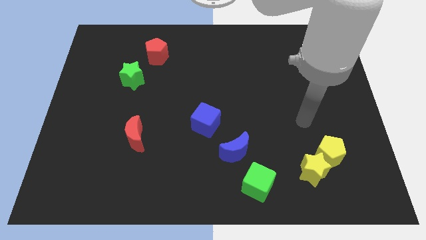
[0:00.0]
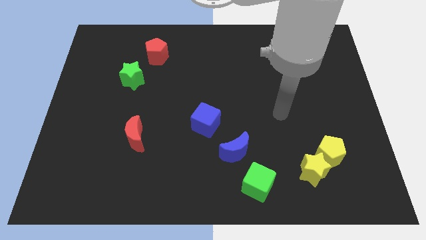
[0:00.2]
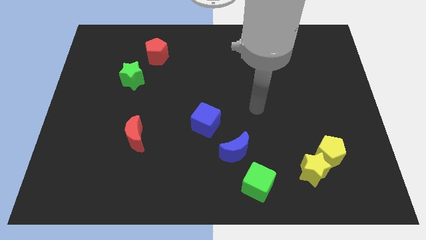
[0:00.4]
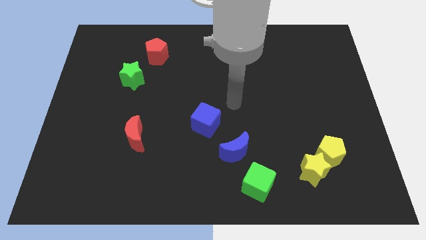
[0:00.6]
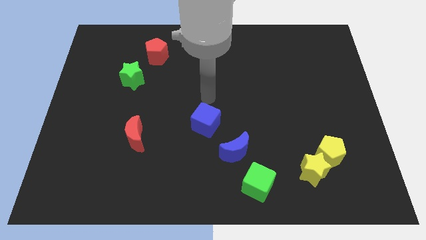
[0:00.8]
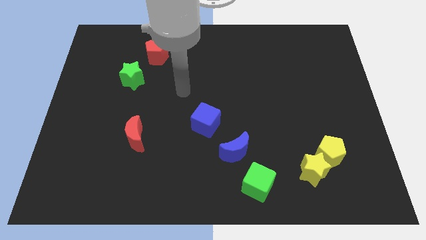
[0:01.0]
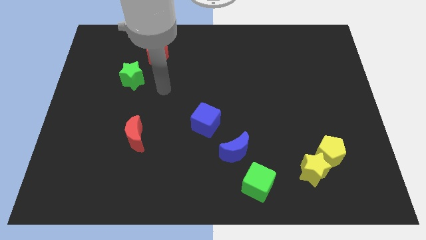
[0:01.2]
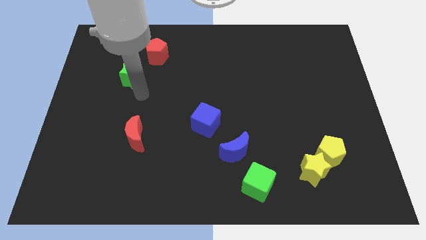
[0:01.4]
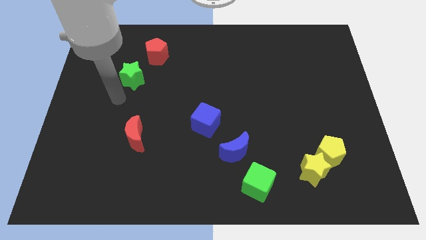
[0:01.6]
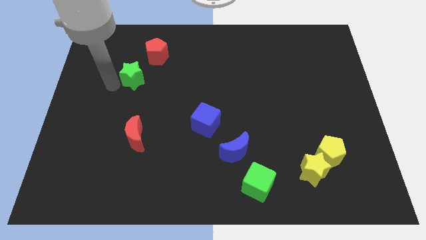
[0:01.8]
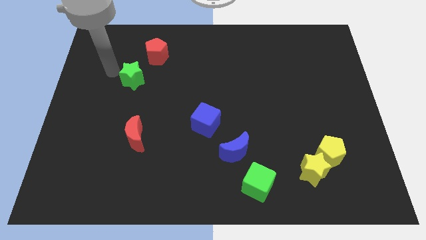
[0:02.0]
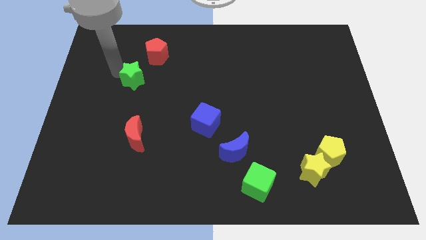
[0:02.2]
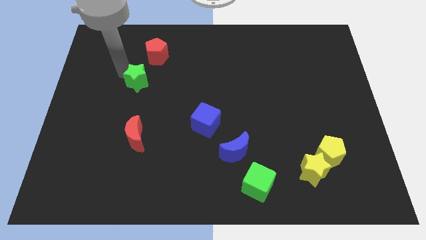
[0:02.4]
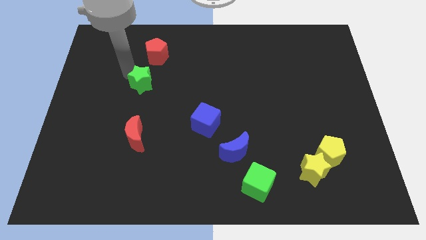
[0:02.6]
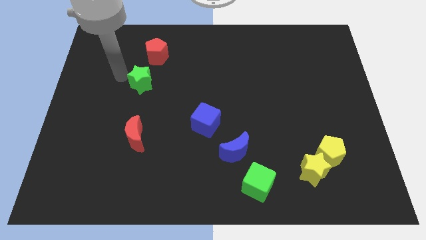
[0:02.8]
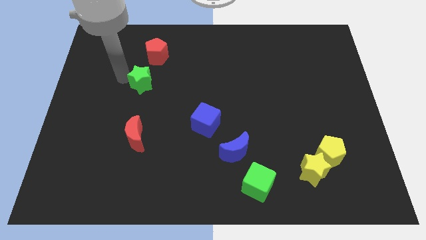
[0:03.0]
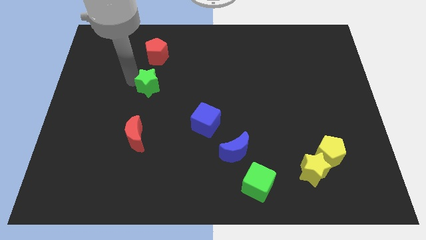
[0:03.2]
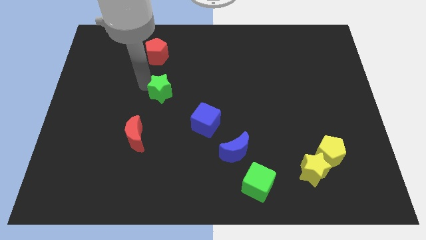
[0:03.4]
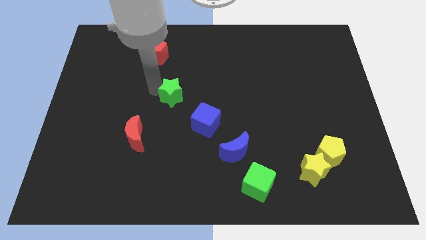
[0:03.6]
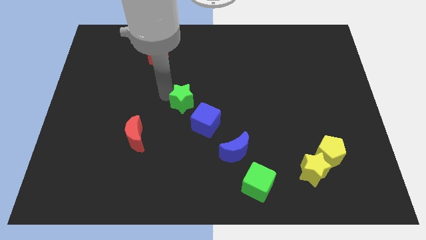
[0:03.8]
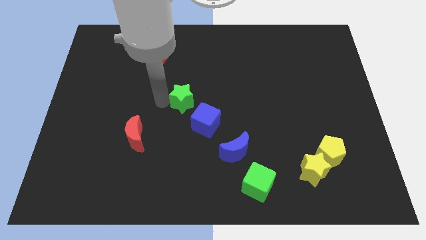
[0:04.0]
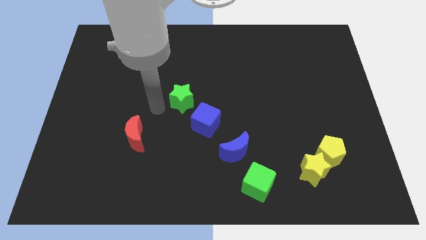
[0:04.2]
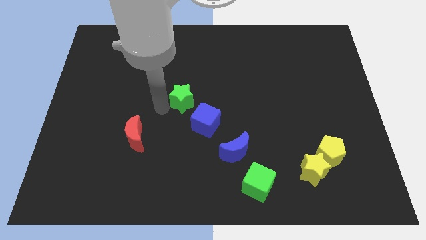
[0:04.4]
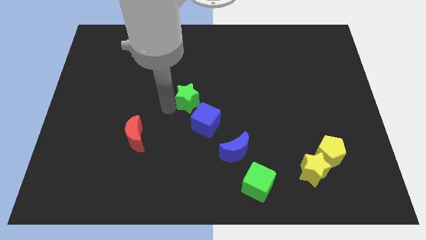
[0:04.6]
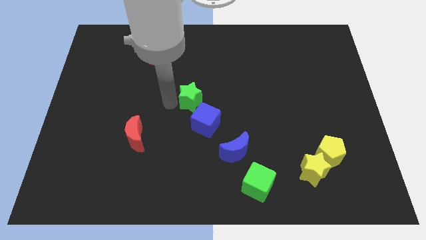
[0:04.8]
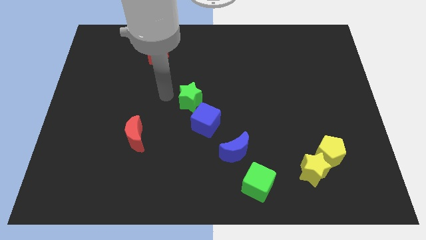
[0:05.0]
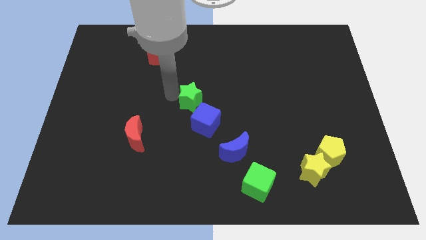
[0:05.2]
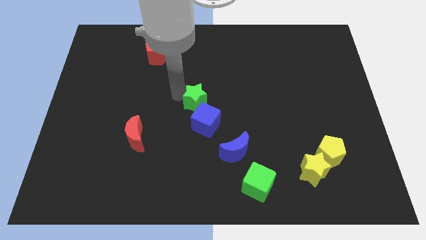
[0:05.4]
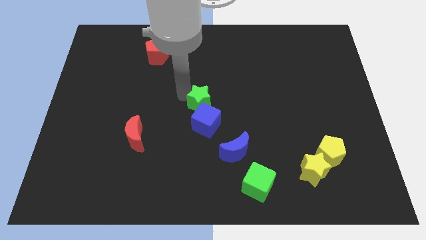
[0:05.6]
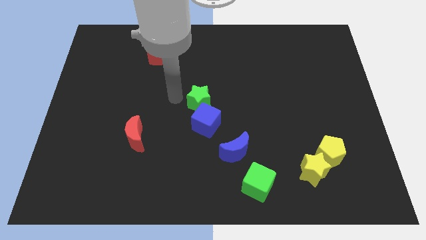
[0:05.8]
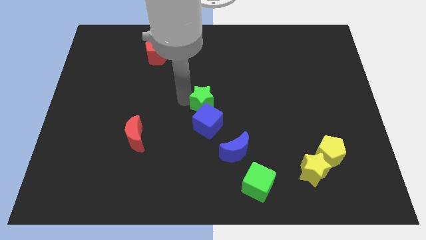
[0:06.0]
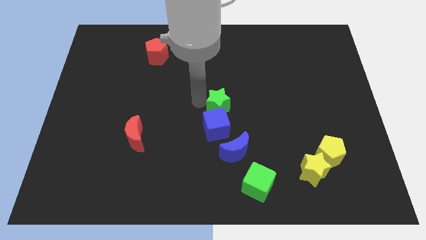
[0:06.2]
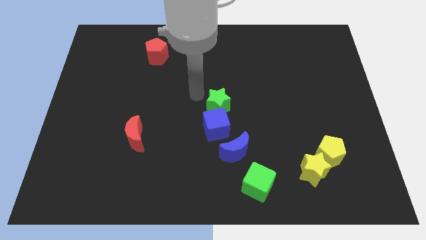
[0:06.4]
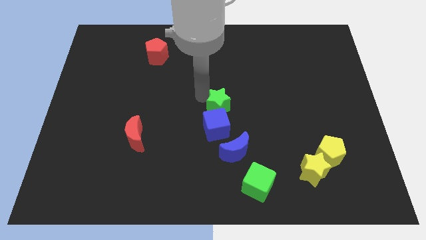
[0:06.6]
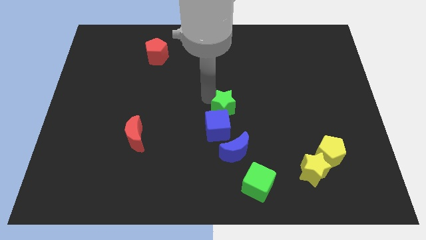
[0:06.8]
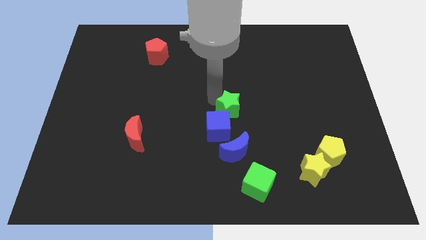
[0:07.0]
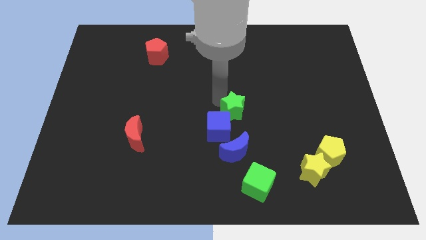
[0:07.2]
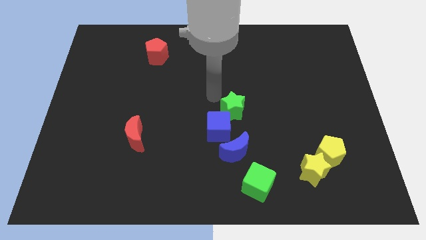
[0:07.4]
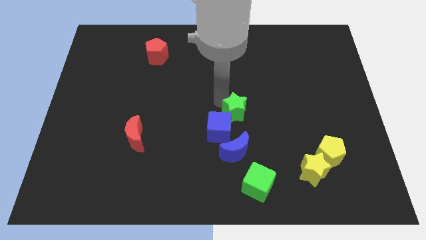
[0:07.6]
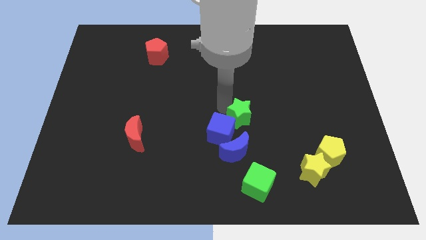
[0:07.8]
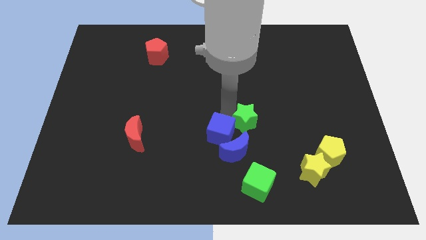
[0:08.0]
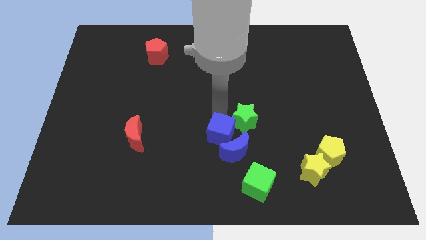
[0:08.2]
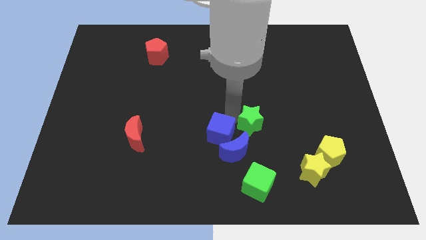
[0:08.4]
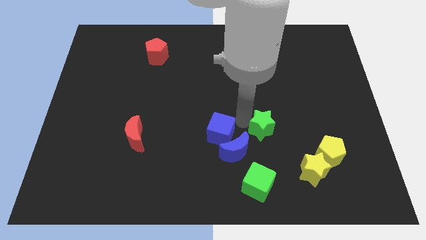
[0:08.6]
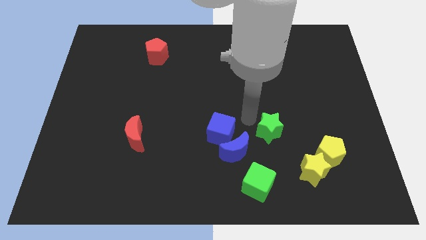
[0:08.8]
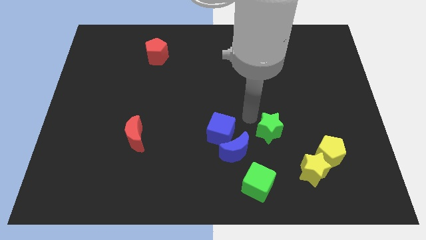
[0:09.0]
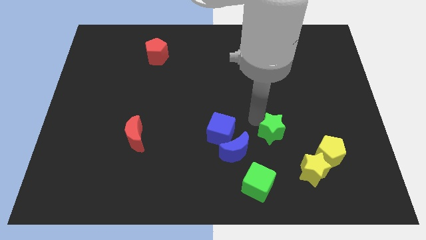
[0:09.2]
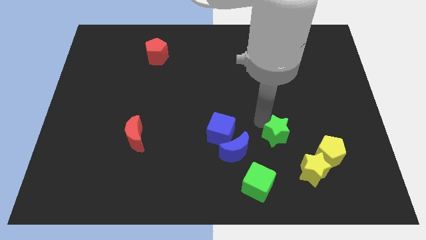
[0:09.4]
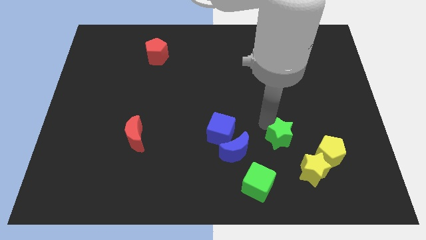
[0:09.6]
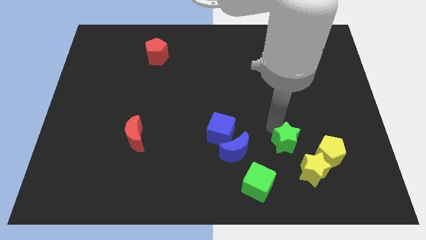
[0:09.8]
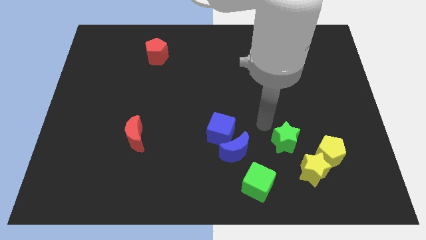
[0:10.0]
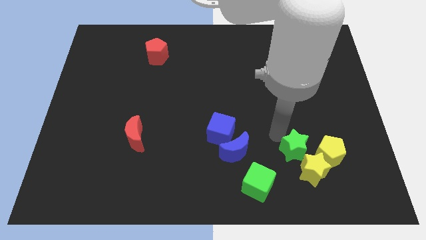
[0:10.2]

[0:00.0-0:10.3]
slide the green star close to the yellow star

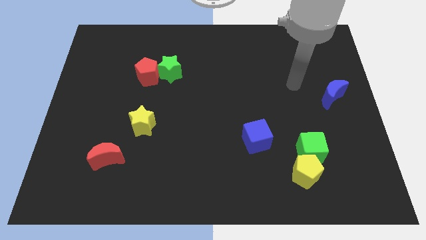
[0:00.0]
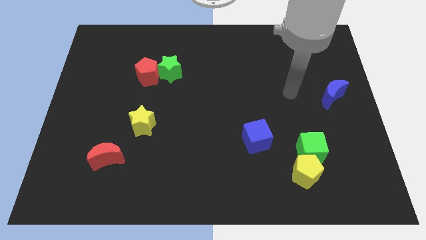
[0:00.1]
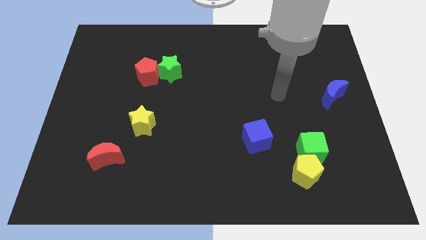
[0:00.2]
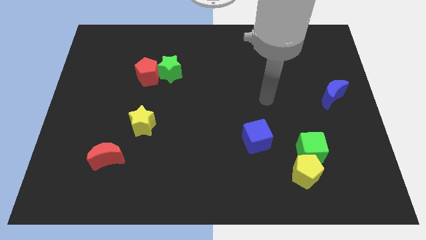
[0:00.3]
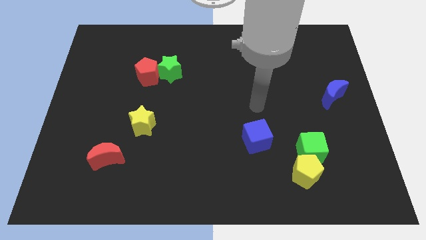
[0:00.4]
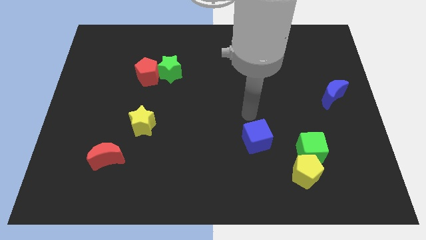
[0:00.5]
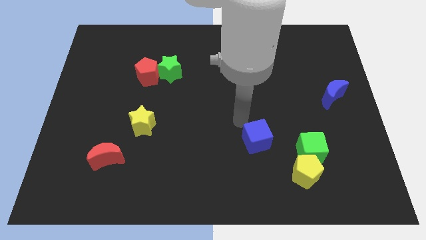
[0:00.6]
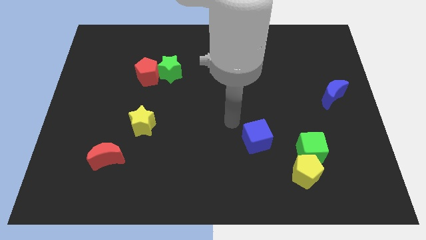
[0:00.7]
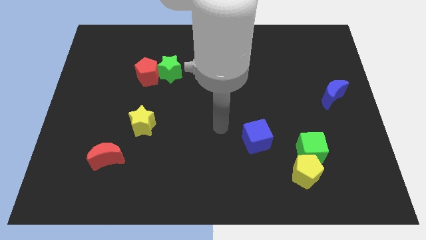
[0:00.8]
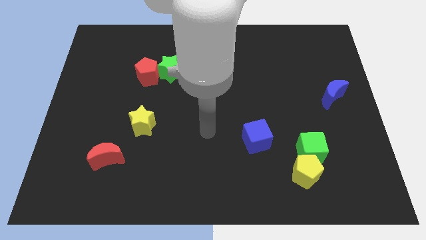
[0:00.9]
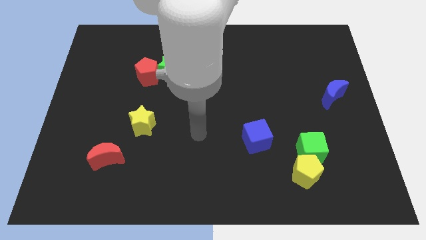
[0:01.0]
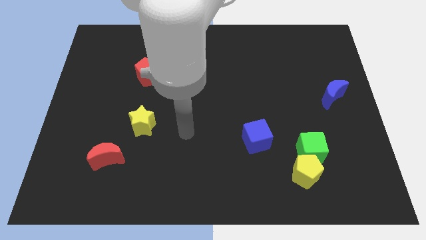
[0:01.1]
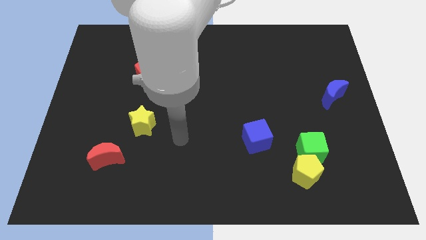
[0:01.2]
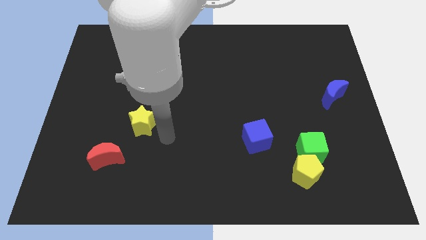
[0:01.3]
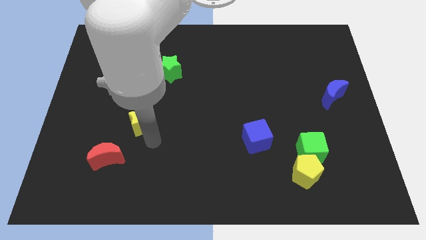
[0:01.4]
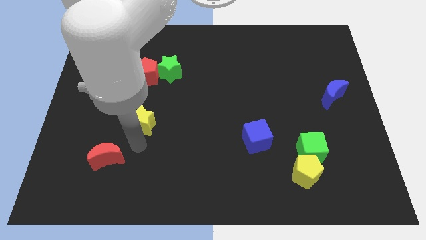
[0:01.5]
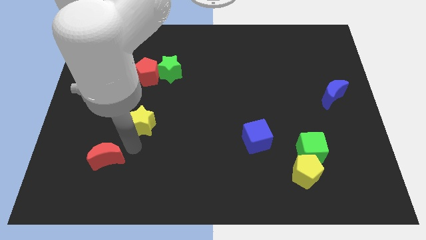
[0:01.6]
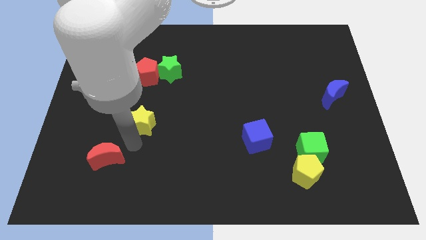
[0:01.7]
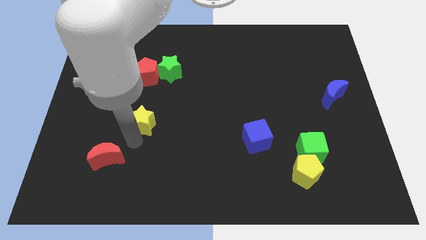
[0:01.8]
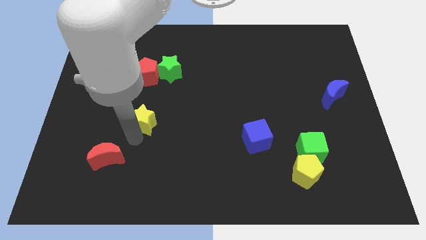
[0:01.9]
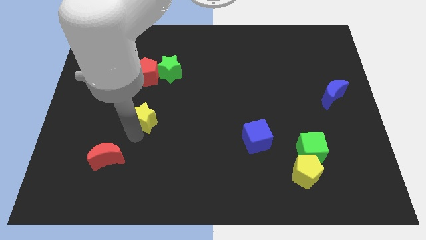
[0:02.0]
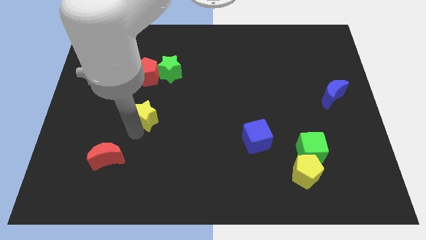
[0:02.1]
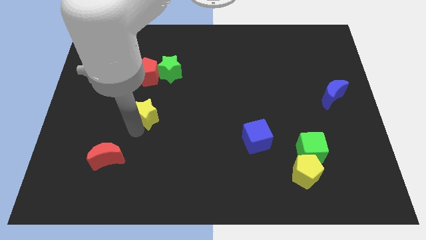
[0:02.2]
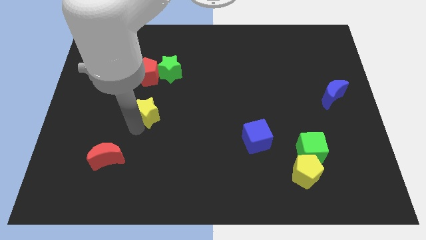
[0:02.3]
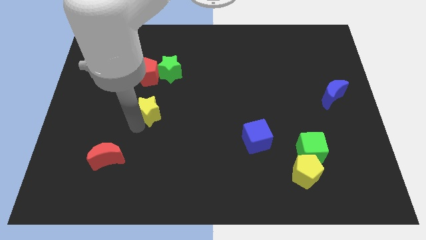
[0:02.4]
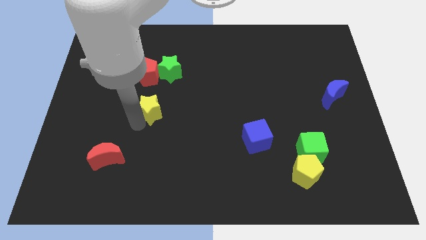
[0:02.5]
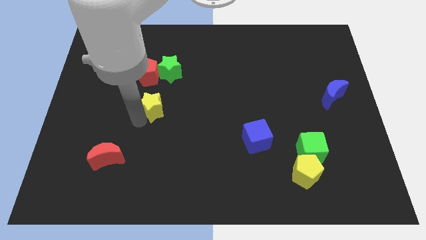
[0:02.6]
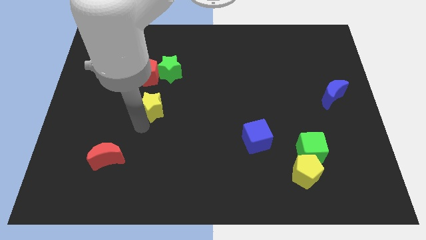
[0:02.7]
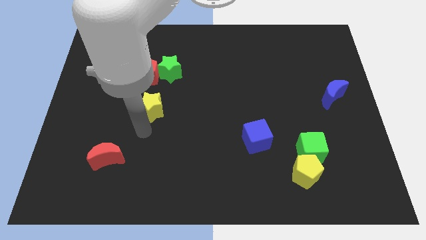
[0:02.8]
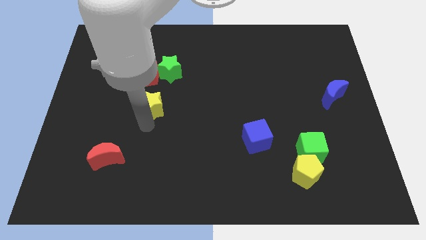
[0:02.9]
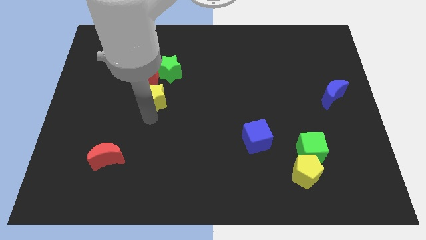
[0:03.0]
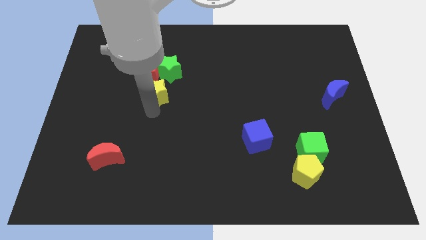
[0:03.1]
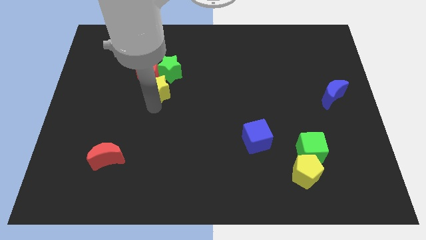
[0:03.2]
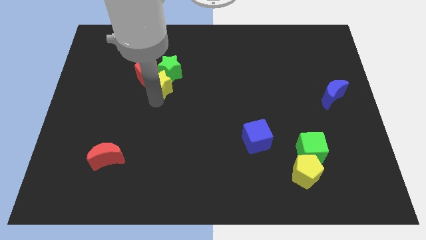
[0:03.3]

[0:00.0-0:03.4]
put the yellow star next to the green star
